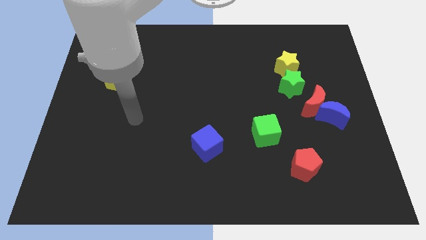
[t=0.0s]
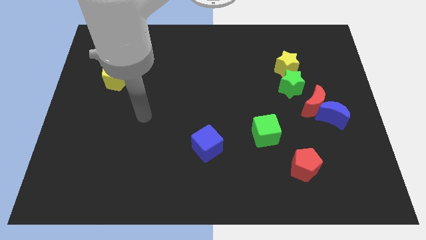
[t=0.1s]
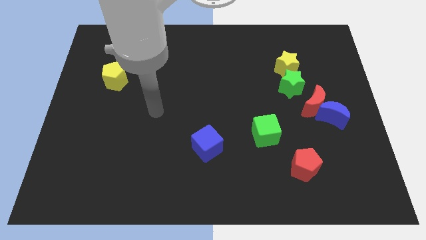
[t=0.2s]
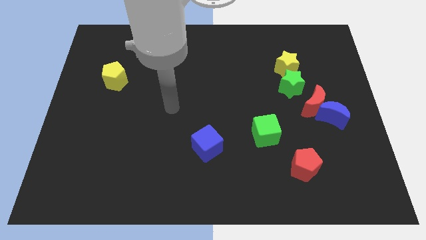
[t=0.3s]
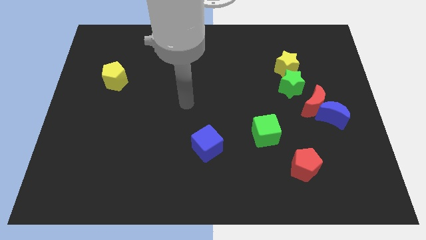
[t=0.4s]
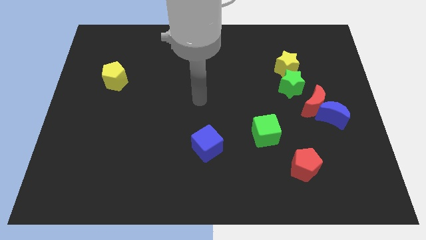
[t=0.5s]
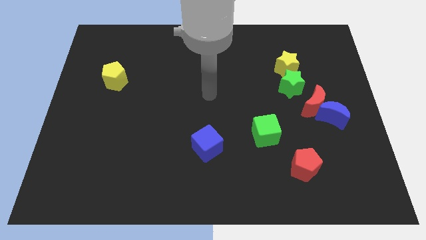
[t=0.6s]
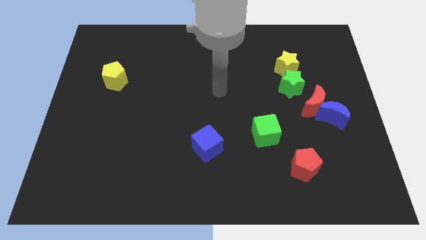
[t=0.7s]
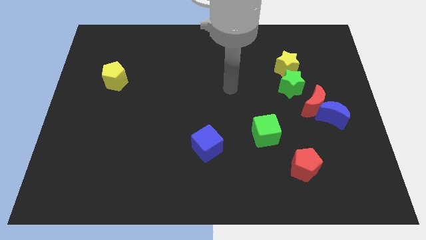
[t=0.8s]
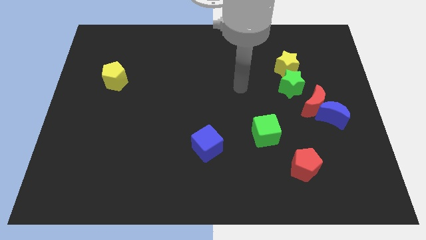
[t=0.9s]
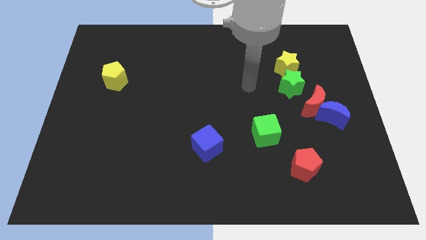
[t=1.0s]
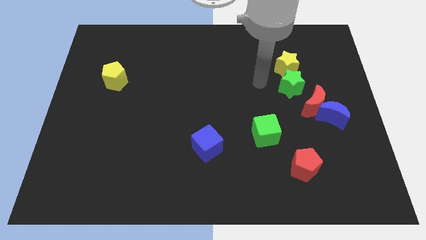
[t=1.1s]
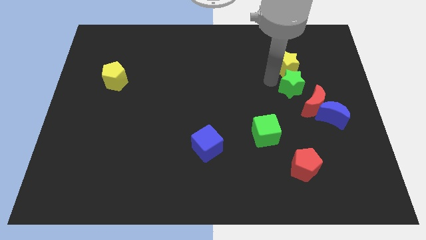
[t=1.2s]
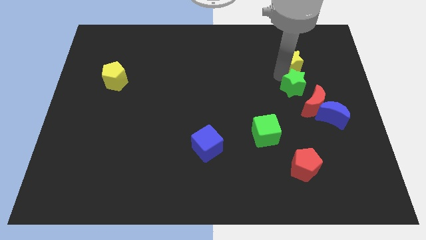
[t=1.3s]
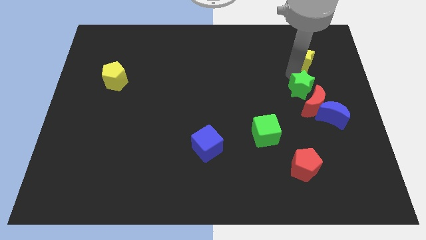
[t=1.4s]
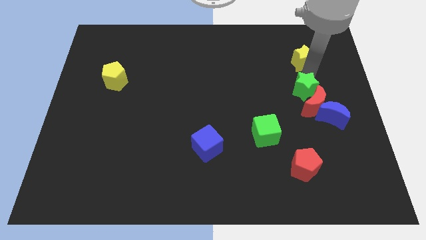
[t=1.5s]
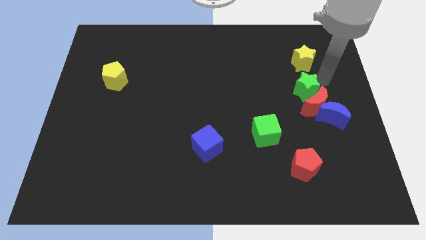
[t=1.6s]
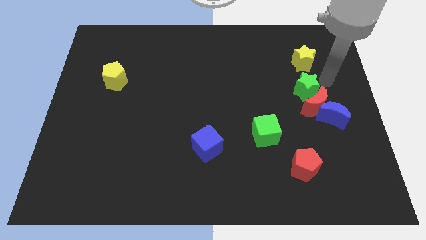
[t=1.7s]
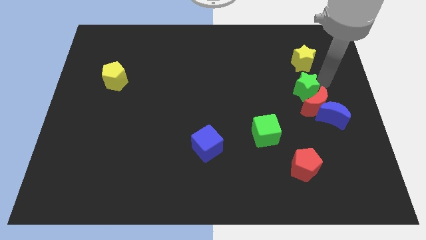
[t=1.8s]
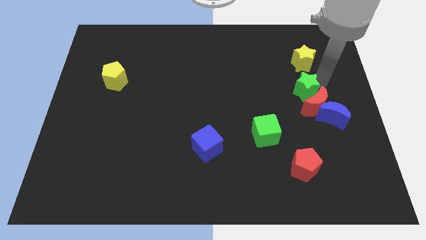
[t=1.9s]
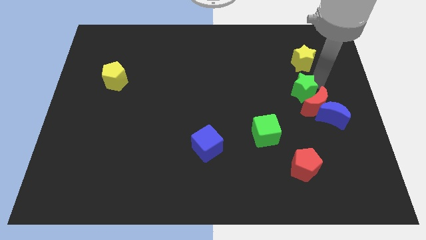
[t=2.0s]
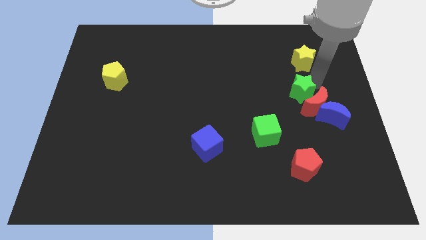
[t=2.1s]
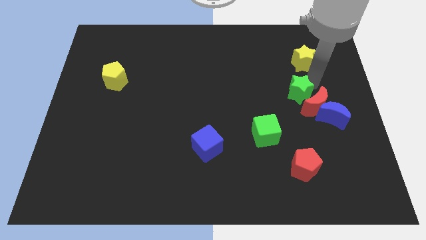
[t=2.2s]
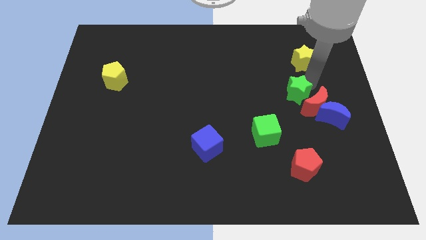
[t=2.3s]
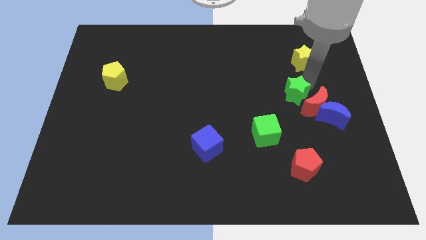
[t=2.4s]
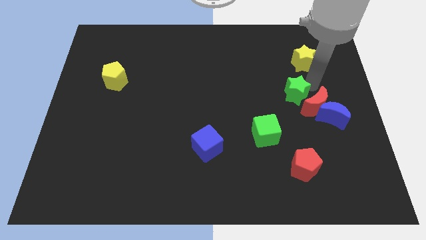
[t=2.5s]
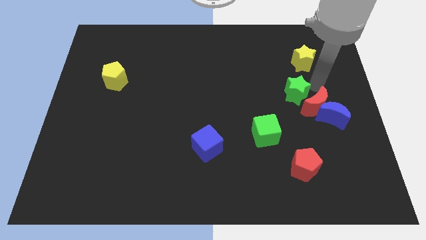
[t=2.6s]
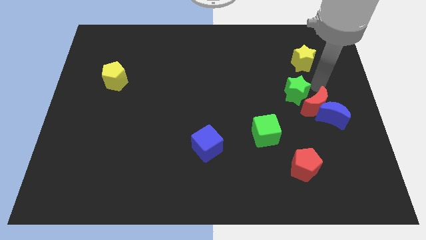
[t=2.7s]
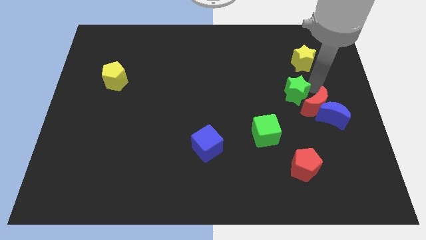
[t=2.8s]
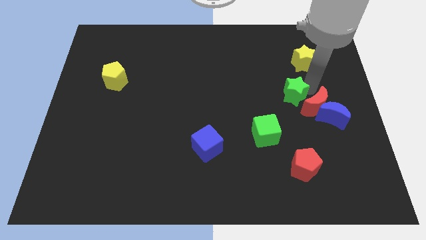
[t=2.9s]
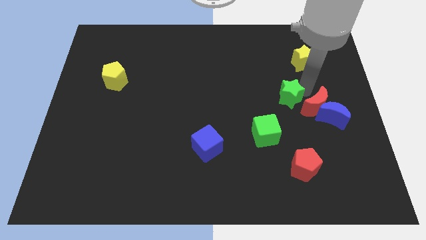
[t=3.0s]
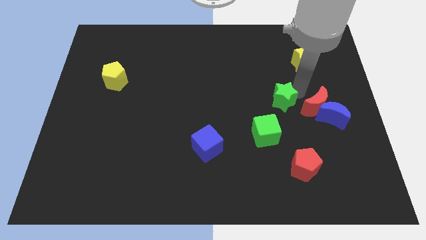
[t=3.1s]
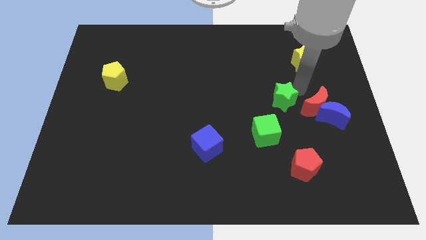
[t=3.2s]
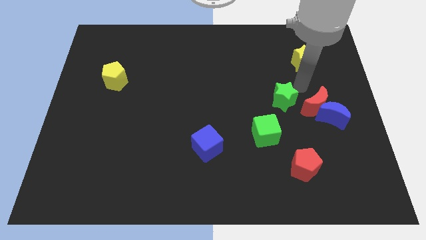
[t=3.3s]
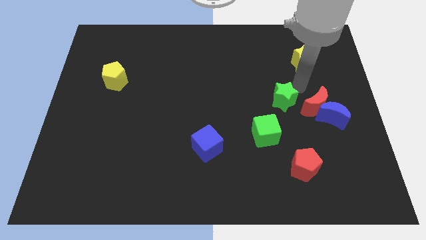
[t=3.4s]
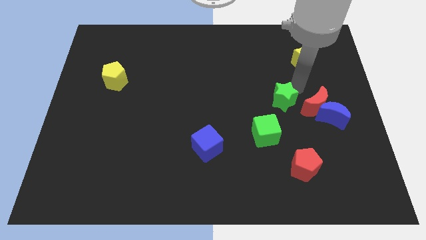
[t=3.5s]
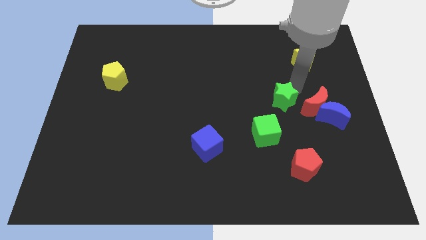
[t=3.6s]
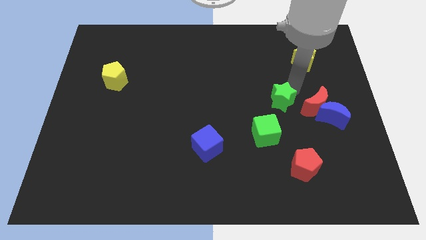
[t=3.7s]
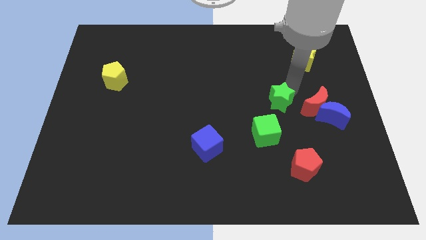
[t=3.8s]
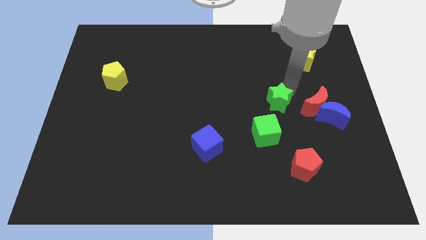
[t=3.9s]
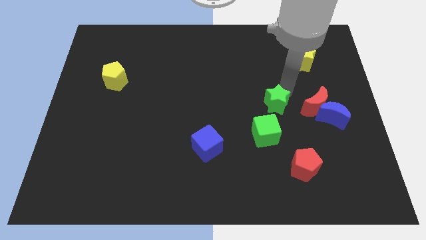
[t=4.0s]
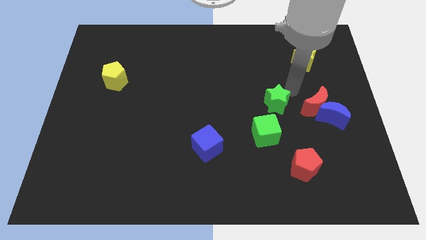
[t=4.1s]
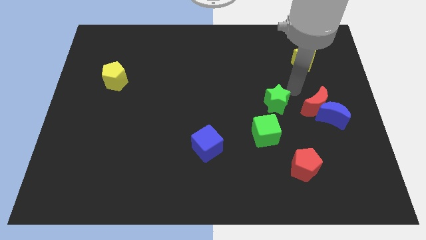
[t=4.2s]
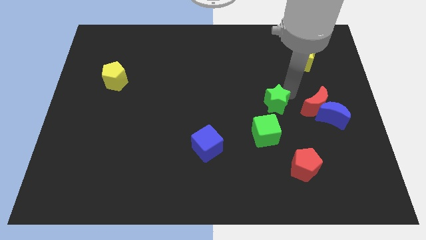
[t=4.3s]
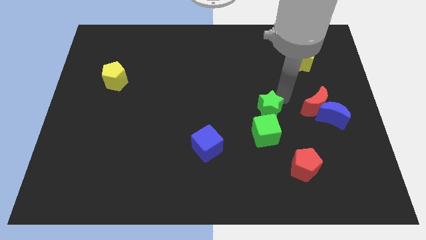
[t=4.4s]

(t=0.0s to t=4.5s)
slightly slide the green star diagonally down and to the left

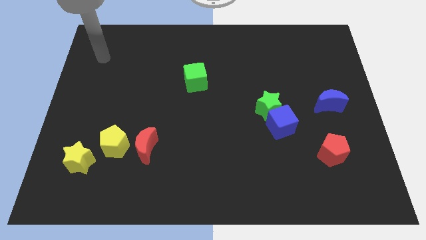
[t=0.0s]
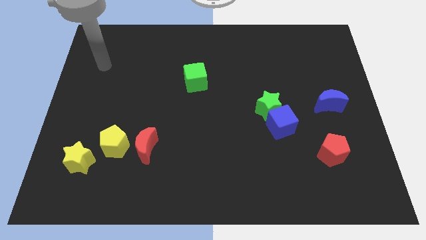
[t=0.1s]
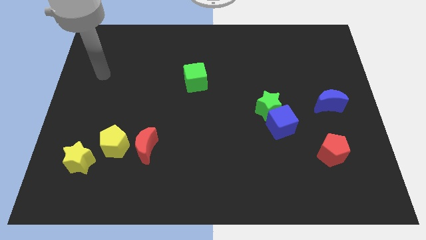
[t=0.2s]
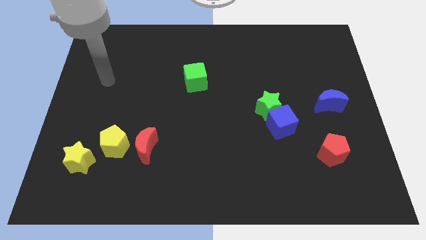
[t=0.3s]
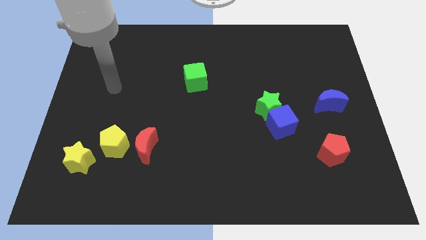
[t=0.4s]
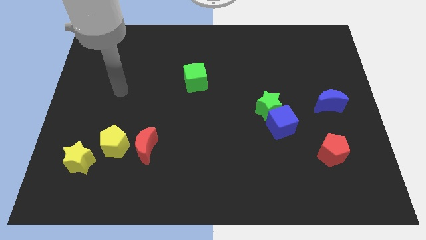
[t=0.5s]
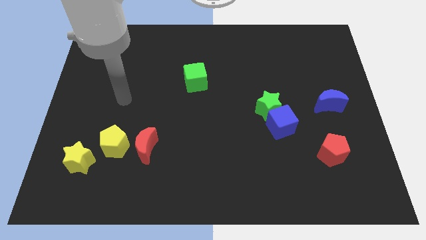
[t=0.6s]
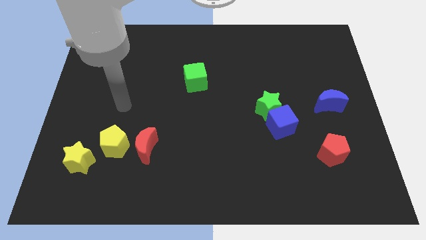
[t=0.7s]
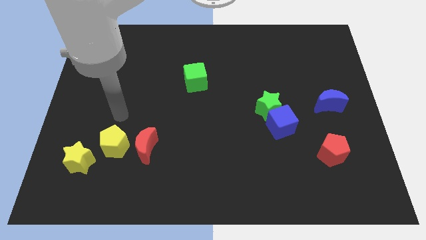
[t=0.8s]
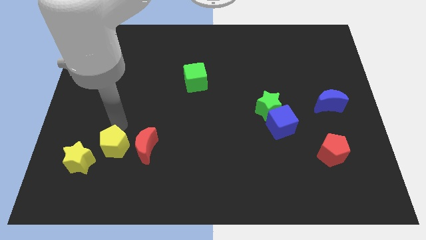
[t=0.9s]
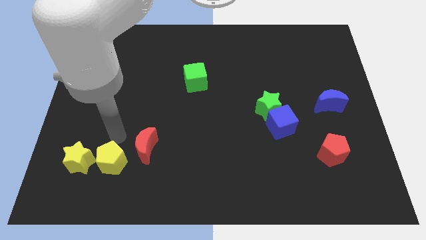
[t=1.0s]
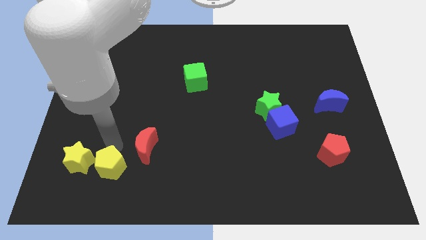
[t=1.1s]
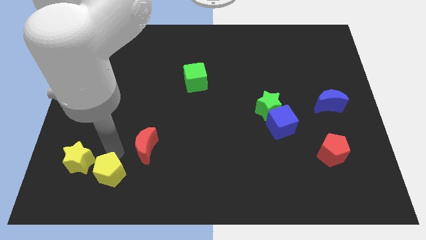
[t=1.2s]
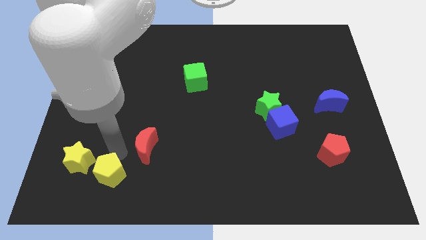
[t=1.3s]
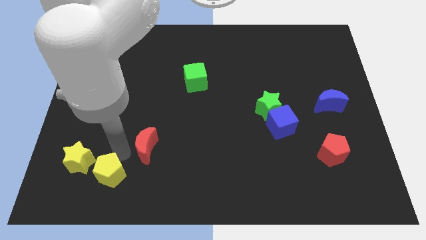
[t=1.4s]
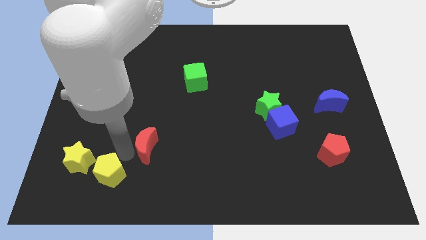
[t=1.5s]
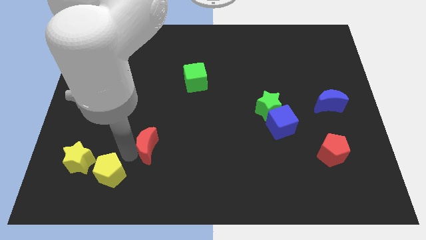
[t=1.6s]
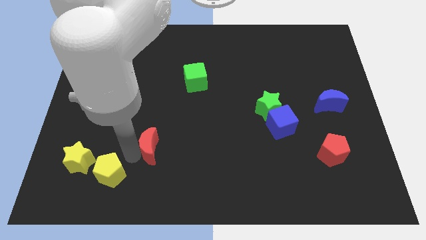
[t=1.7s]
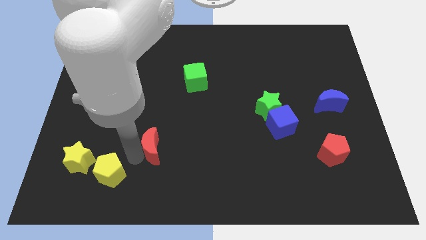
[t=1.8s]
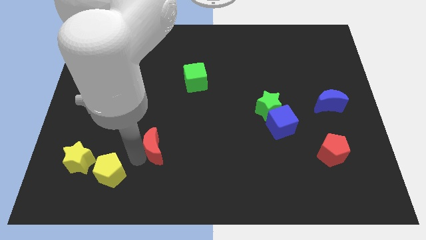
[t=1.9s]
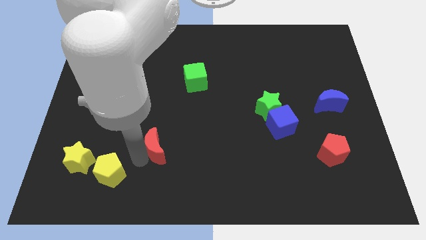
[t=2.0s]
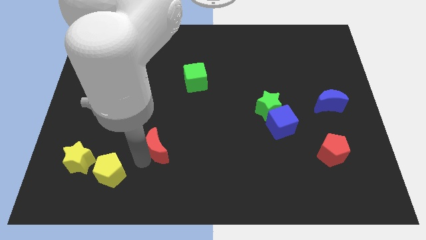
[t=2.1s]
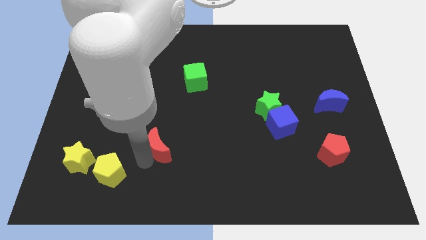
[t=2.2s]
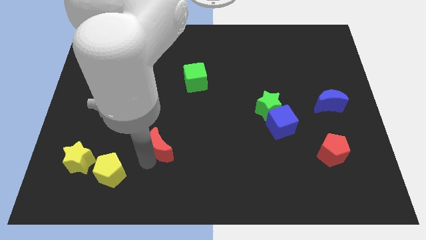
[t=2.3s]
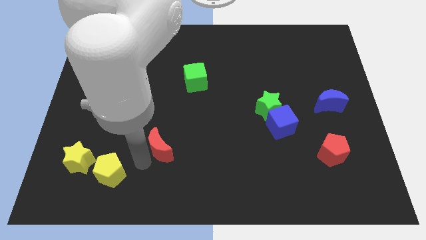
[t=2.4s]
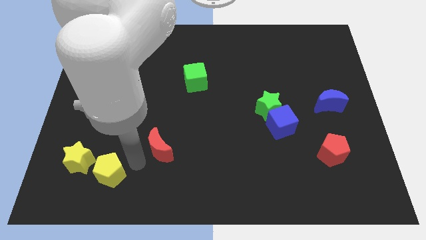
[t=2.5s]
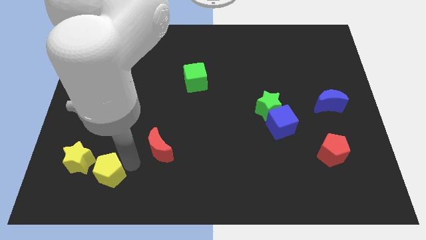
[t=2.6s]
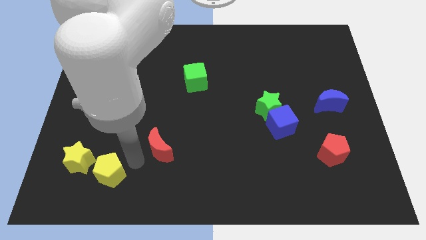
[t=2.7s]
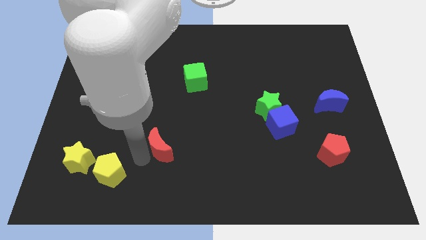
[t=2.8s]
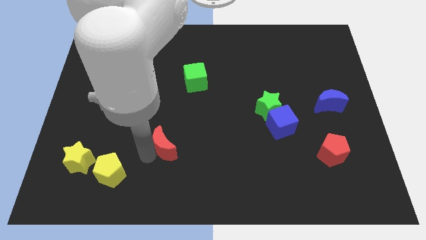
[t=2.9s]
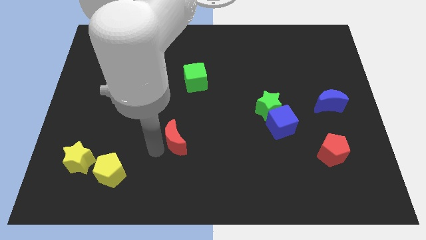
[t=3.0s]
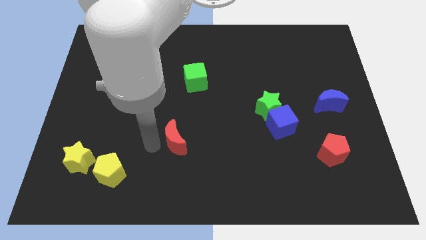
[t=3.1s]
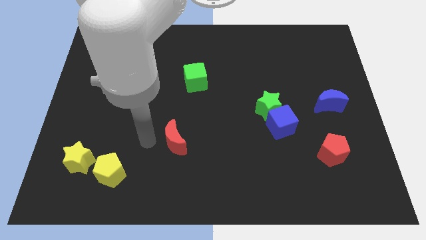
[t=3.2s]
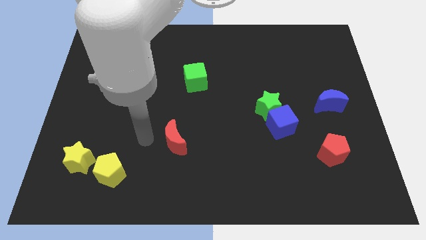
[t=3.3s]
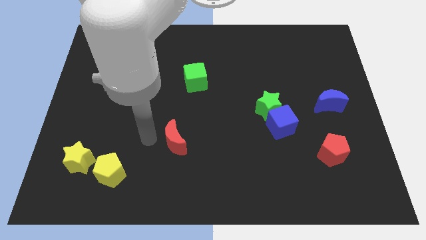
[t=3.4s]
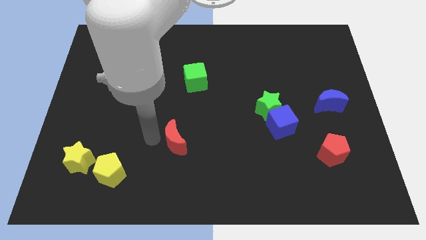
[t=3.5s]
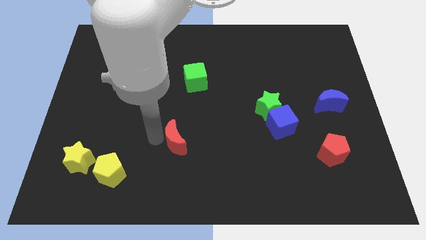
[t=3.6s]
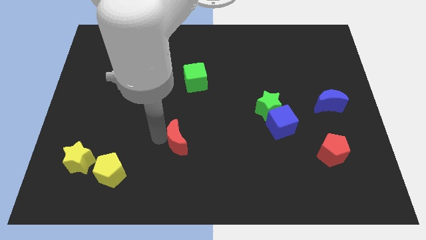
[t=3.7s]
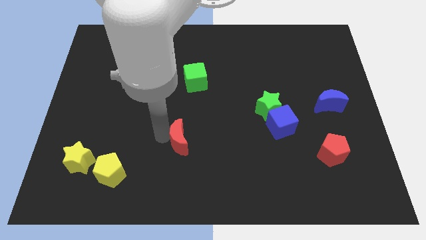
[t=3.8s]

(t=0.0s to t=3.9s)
slightly push the red moon to the right
